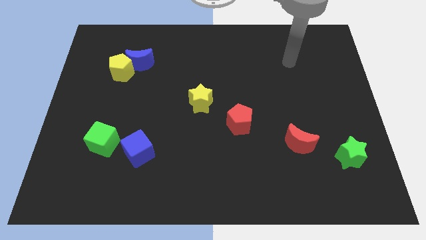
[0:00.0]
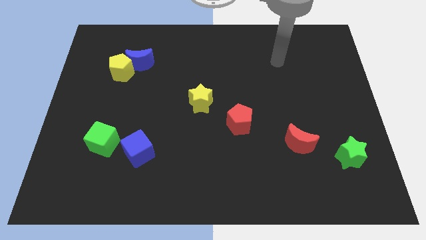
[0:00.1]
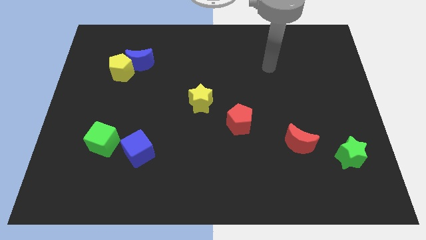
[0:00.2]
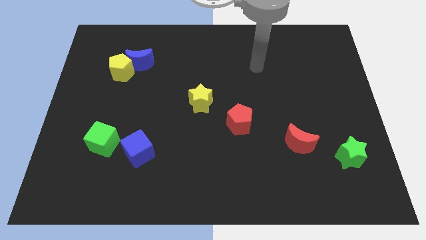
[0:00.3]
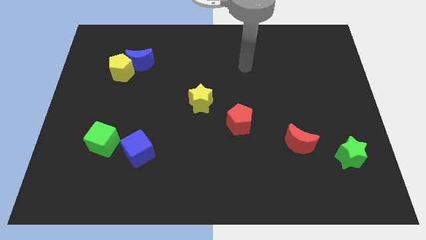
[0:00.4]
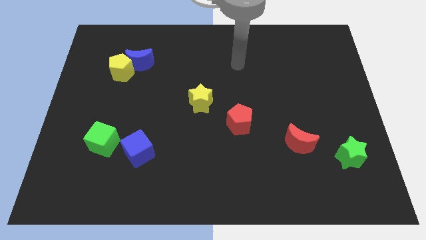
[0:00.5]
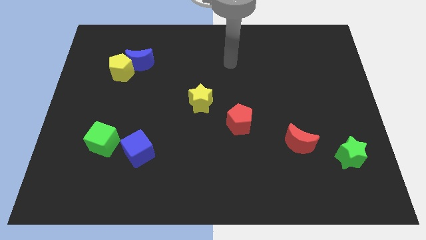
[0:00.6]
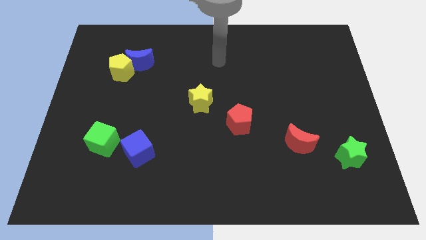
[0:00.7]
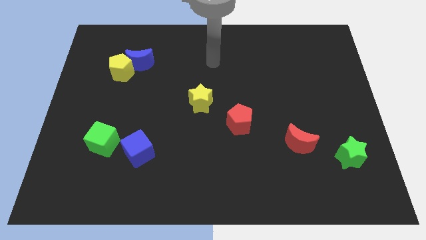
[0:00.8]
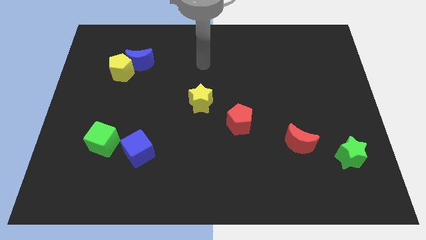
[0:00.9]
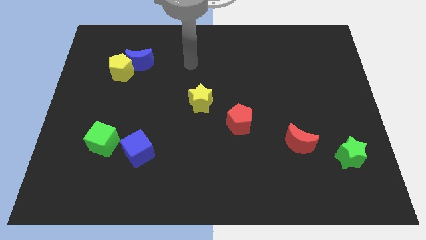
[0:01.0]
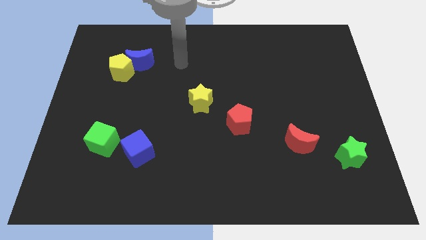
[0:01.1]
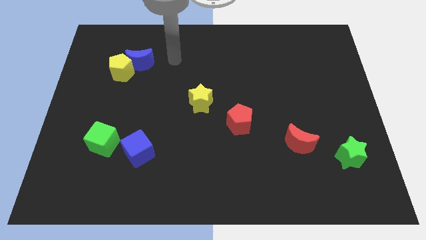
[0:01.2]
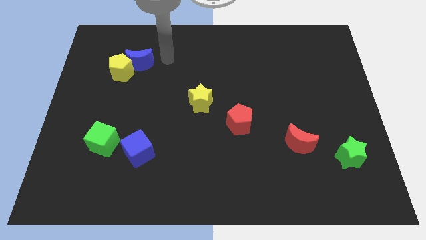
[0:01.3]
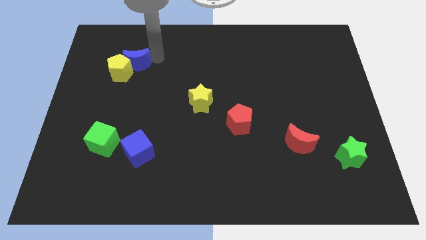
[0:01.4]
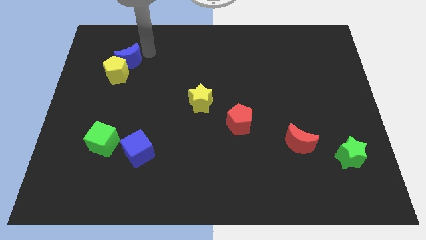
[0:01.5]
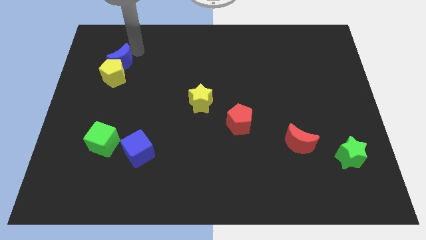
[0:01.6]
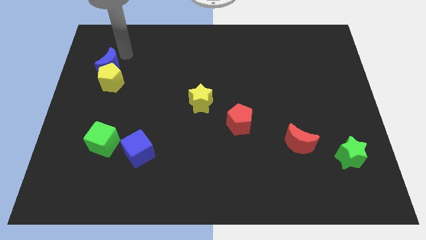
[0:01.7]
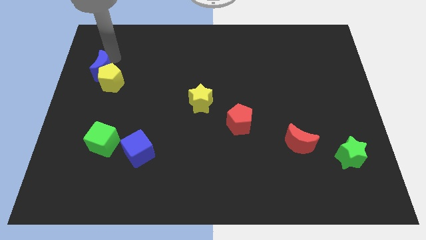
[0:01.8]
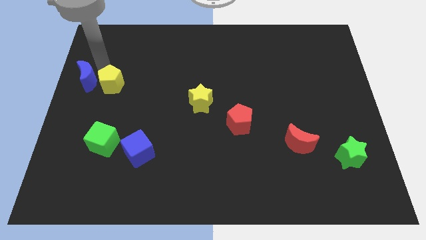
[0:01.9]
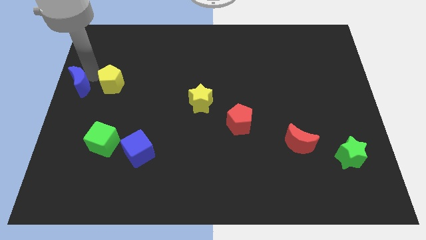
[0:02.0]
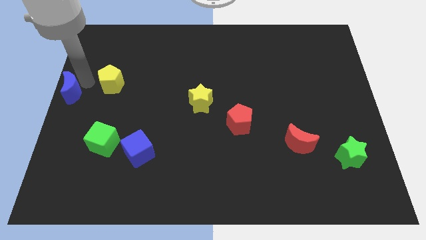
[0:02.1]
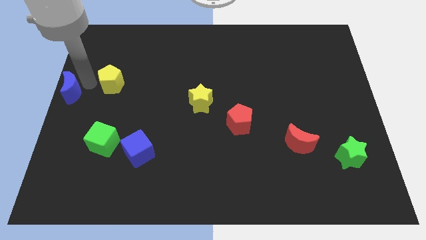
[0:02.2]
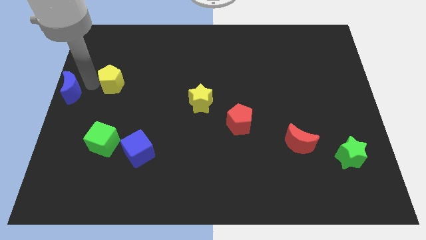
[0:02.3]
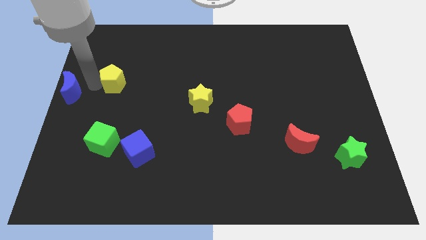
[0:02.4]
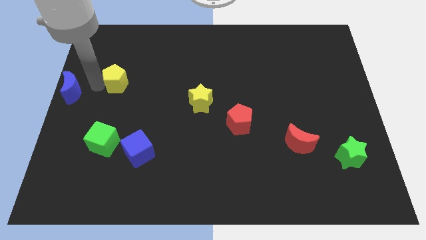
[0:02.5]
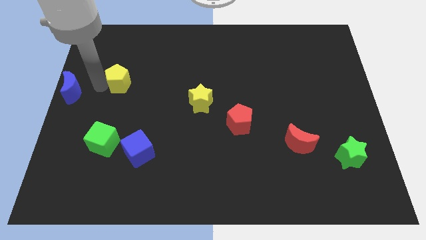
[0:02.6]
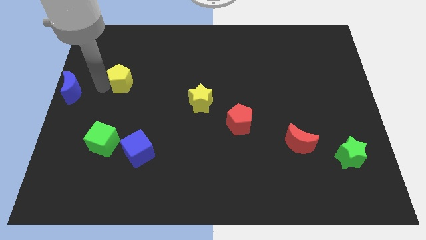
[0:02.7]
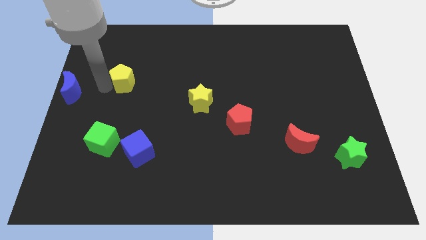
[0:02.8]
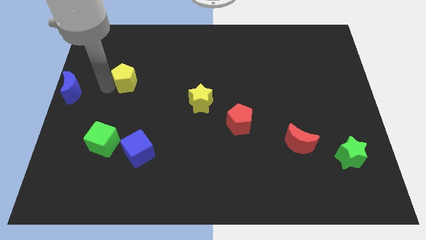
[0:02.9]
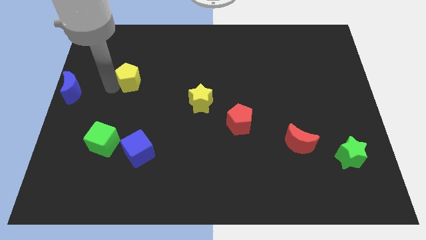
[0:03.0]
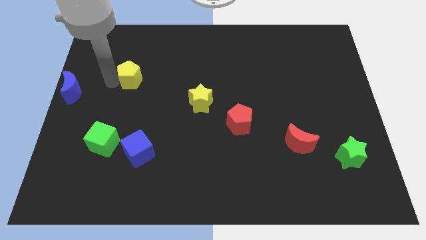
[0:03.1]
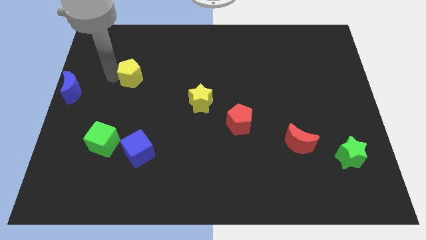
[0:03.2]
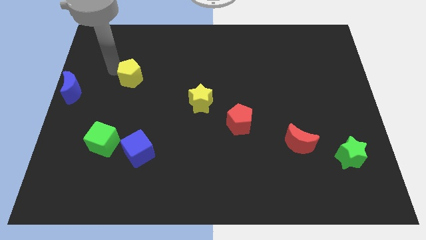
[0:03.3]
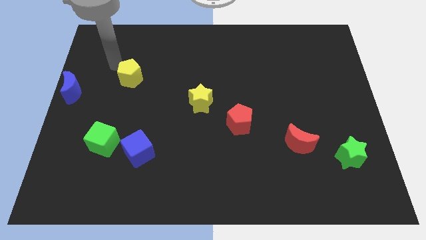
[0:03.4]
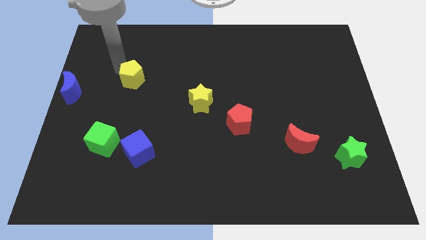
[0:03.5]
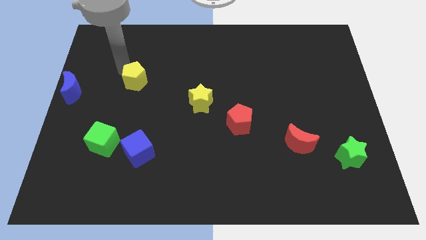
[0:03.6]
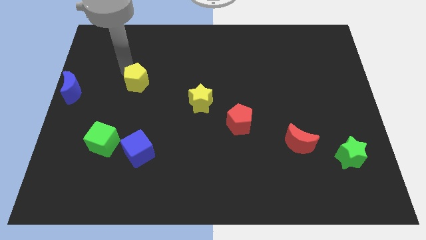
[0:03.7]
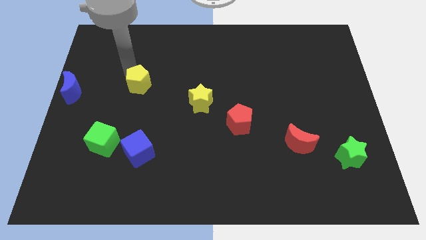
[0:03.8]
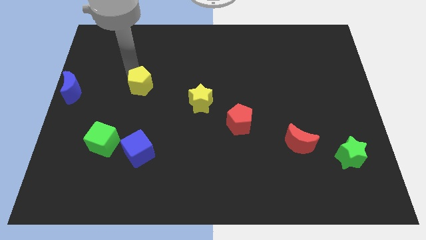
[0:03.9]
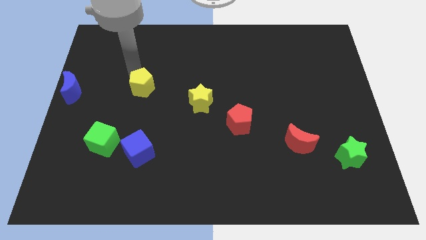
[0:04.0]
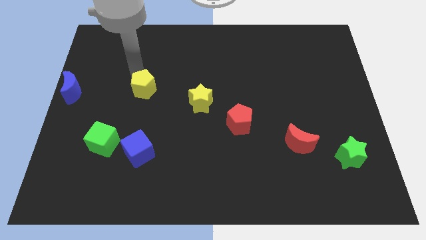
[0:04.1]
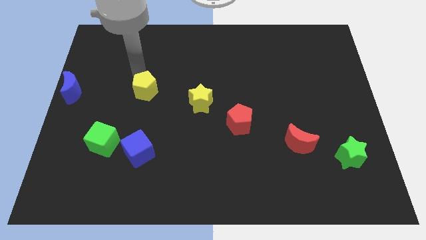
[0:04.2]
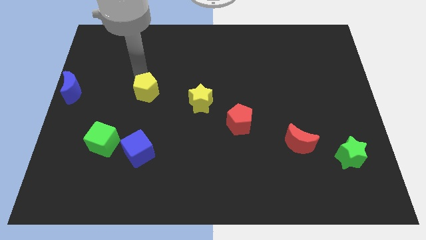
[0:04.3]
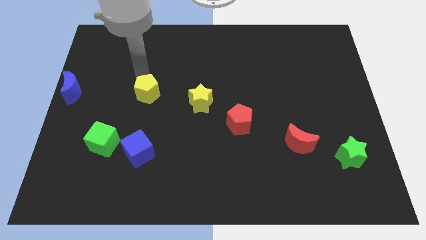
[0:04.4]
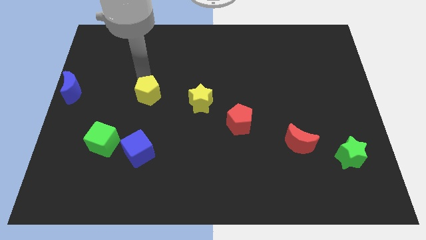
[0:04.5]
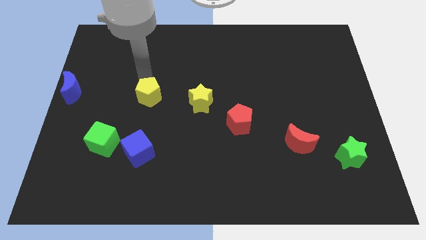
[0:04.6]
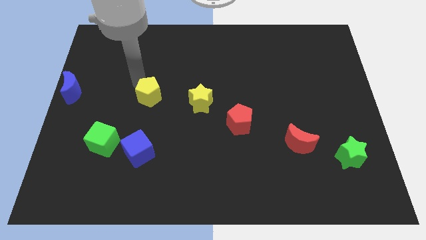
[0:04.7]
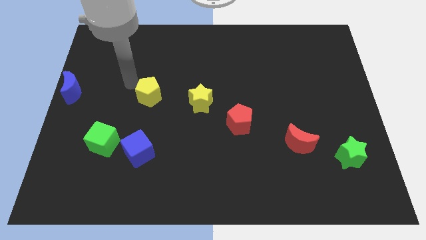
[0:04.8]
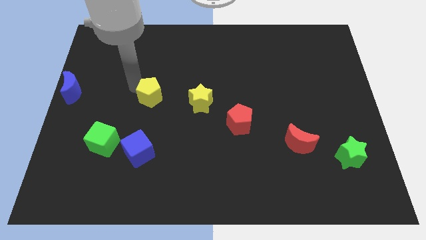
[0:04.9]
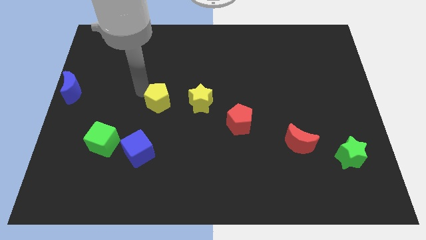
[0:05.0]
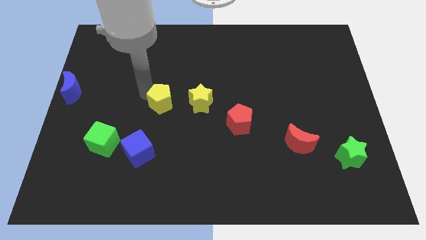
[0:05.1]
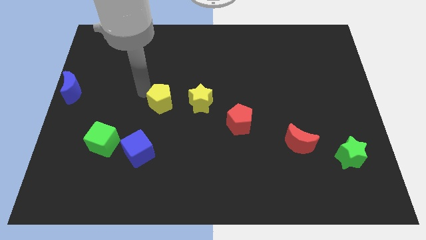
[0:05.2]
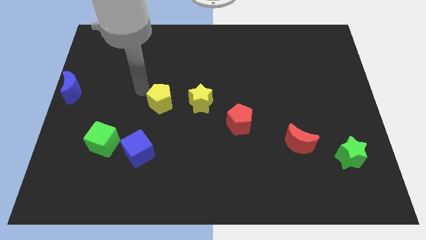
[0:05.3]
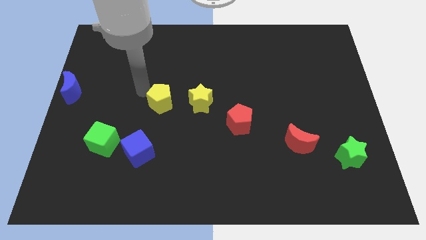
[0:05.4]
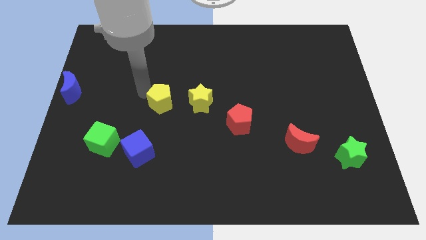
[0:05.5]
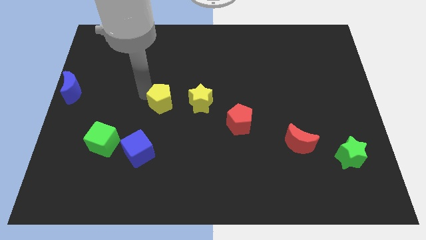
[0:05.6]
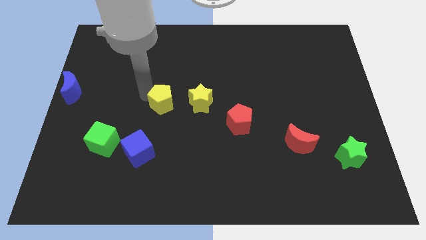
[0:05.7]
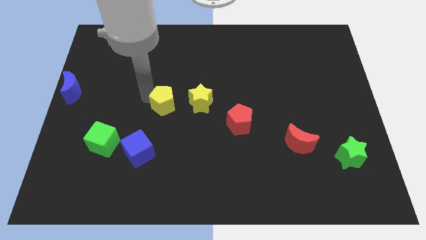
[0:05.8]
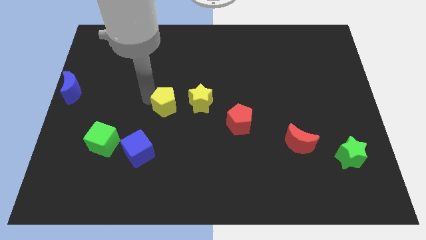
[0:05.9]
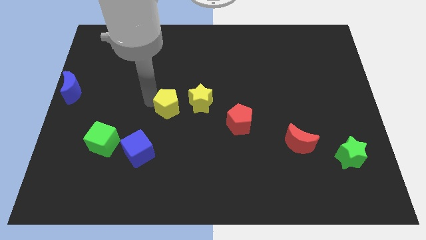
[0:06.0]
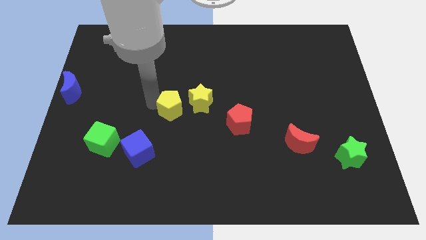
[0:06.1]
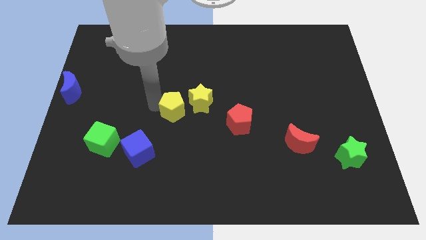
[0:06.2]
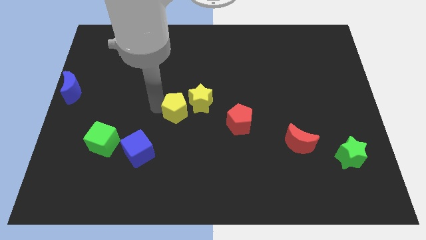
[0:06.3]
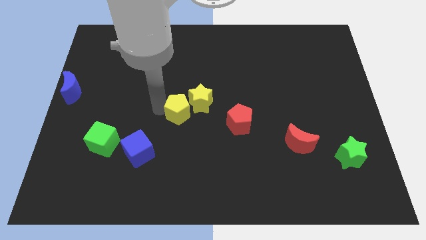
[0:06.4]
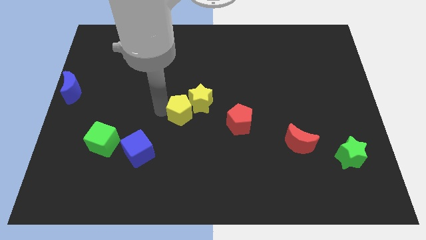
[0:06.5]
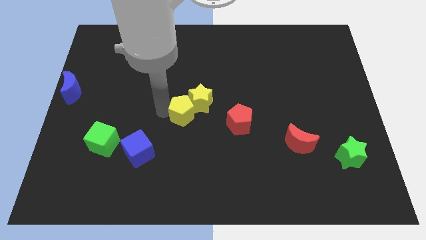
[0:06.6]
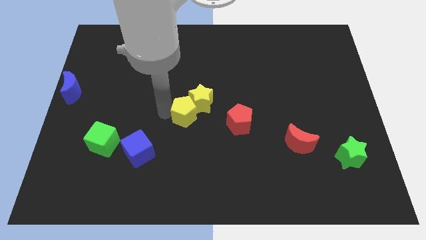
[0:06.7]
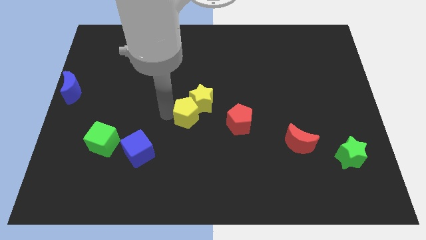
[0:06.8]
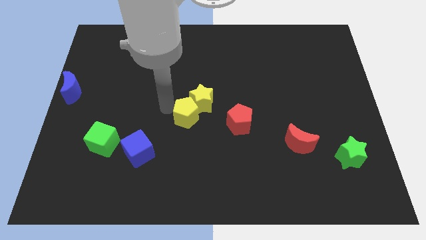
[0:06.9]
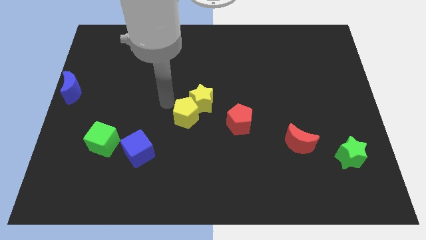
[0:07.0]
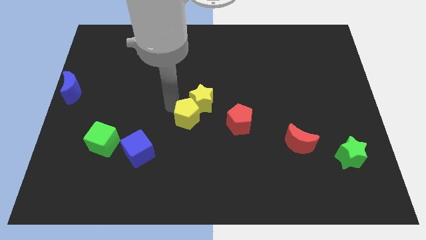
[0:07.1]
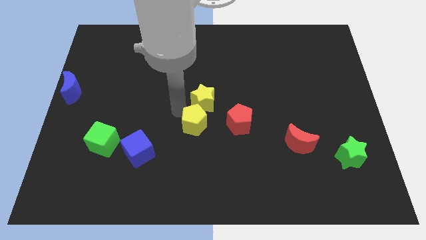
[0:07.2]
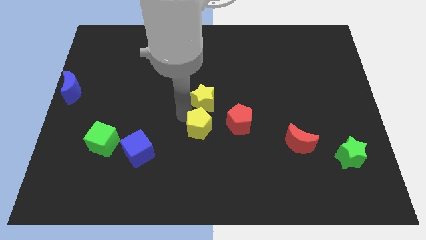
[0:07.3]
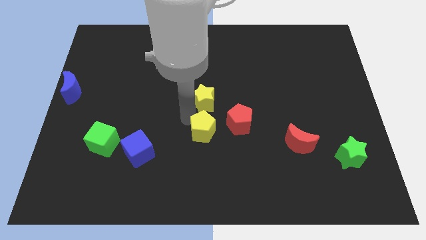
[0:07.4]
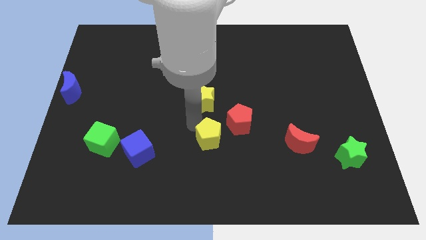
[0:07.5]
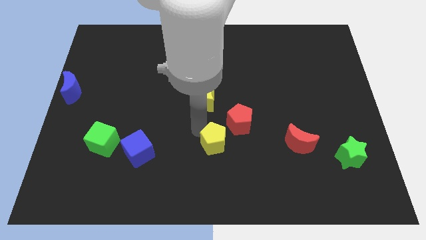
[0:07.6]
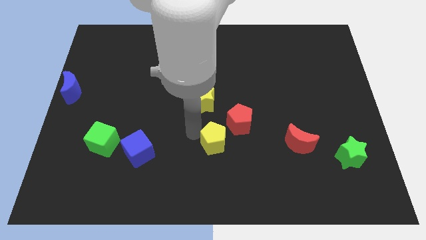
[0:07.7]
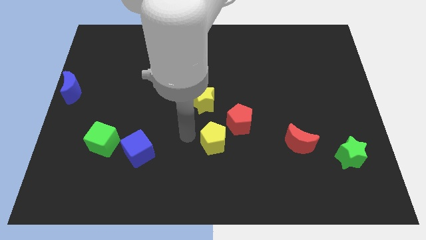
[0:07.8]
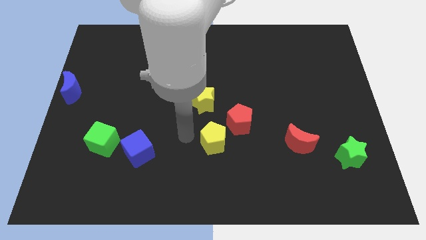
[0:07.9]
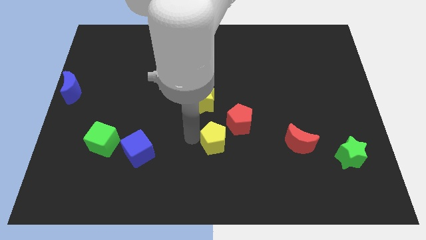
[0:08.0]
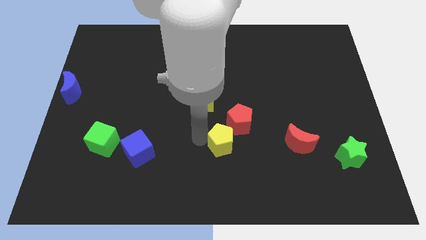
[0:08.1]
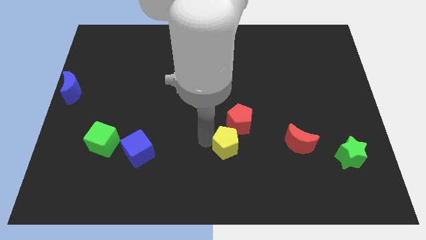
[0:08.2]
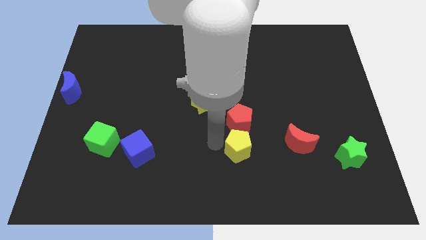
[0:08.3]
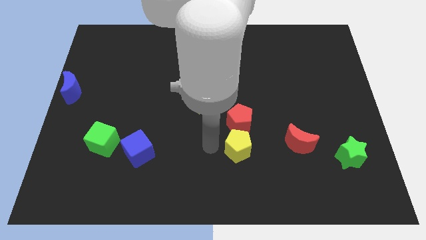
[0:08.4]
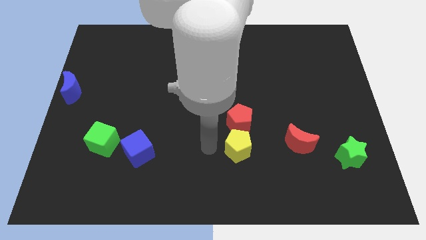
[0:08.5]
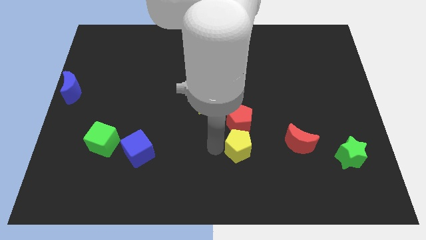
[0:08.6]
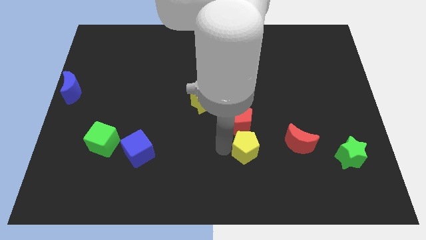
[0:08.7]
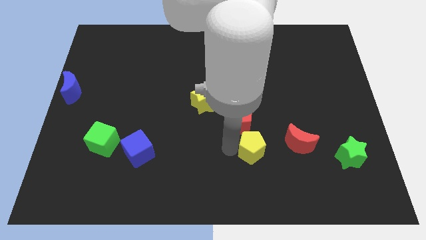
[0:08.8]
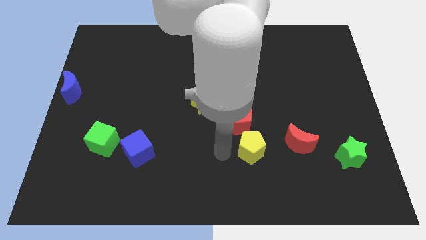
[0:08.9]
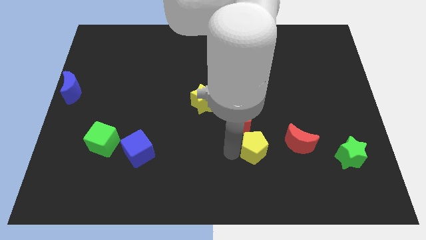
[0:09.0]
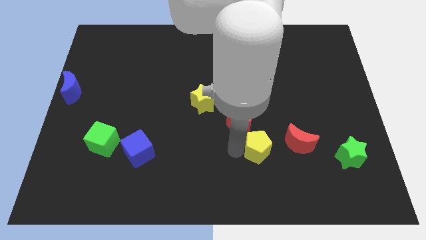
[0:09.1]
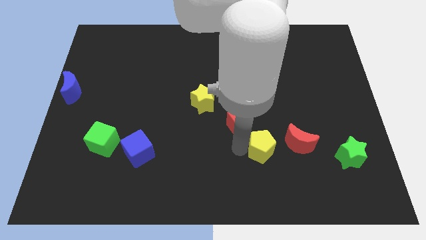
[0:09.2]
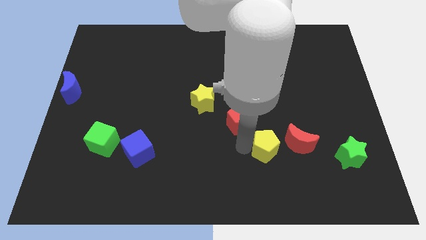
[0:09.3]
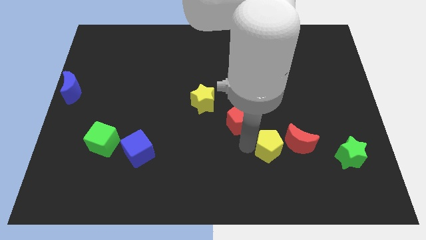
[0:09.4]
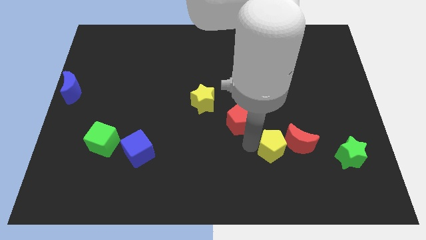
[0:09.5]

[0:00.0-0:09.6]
move the yellow pentagon next to the red moon
